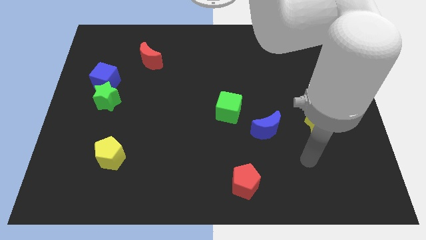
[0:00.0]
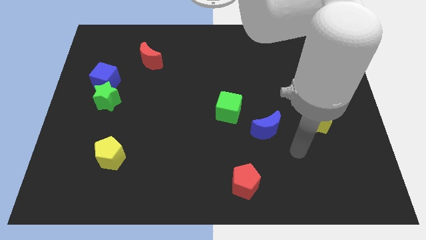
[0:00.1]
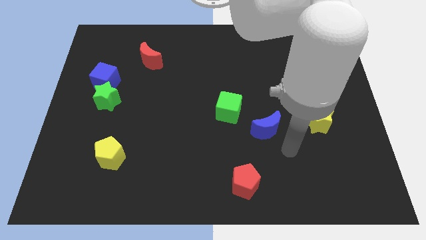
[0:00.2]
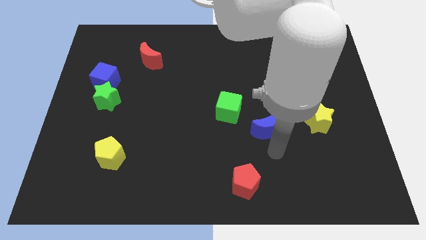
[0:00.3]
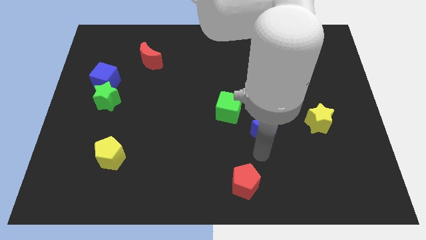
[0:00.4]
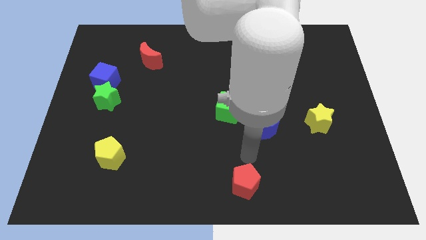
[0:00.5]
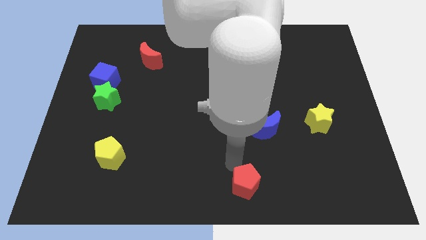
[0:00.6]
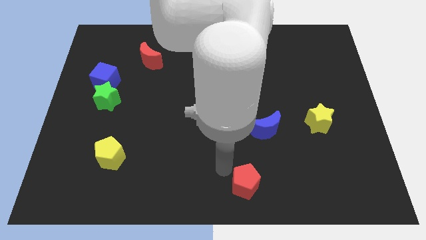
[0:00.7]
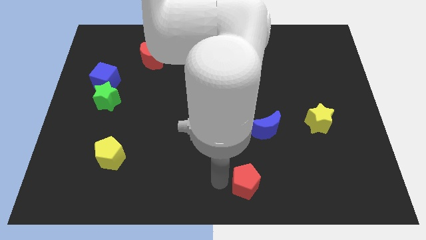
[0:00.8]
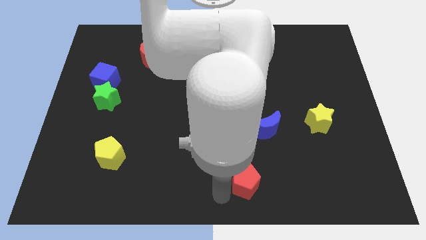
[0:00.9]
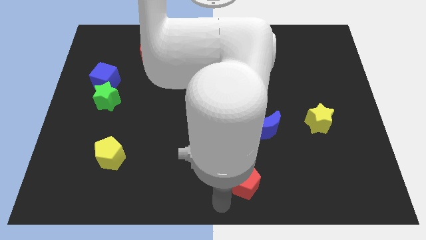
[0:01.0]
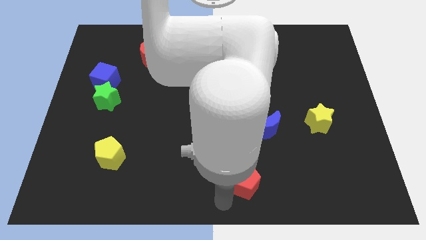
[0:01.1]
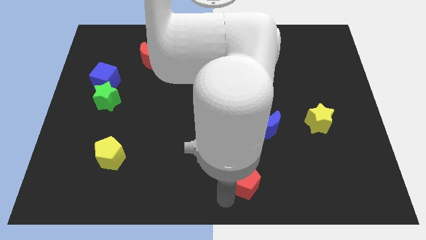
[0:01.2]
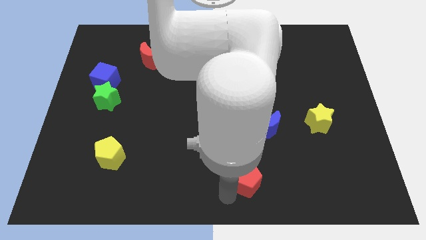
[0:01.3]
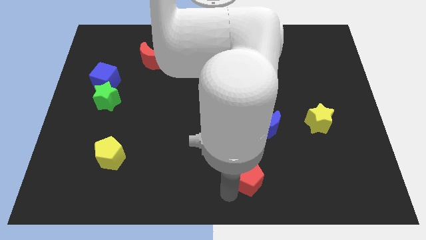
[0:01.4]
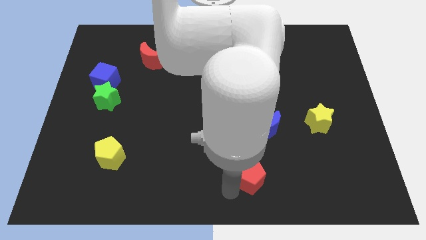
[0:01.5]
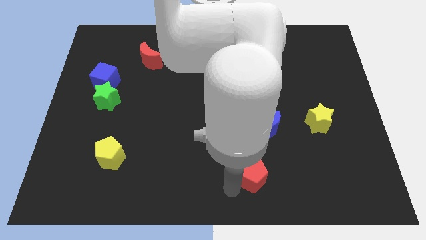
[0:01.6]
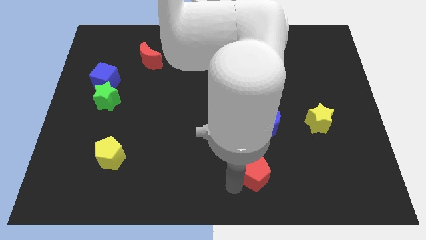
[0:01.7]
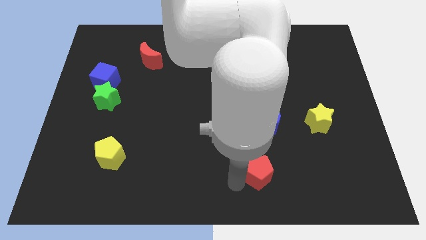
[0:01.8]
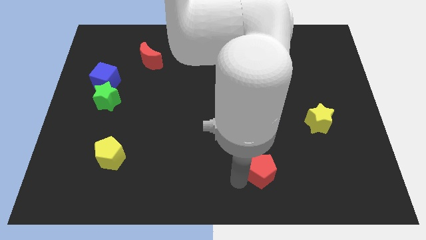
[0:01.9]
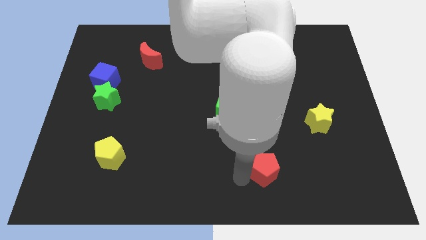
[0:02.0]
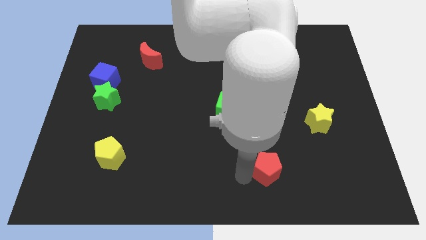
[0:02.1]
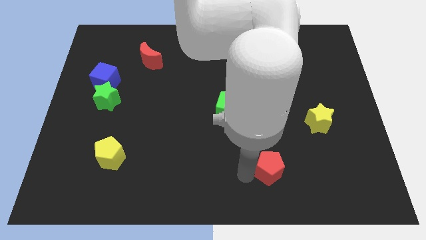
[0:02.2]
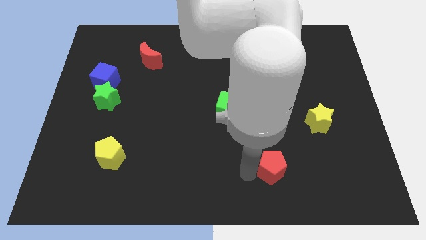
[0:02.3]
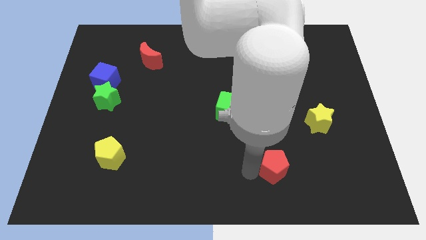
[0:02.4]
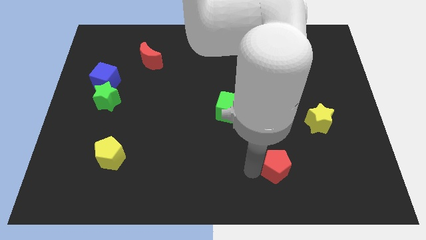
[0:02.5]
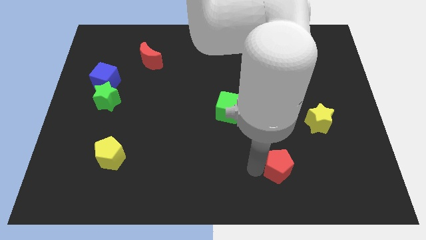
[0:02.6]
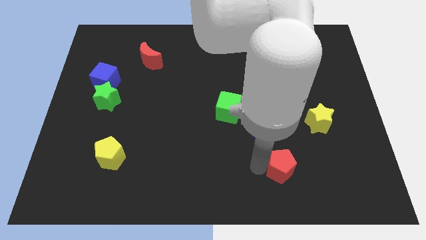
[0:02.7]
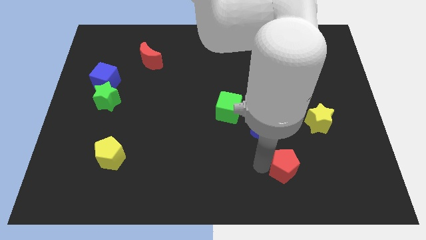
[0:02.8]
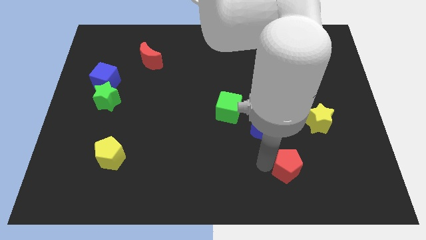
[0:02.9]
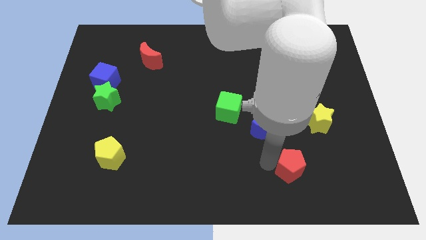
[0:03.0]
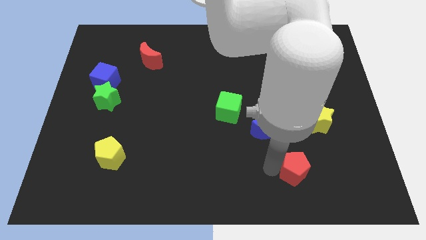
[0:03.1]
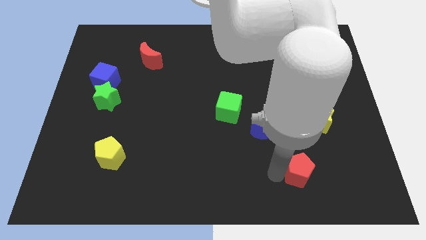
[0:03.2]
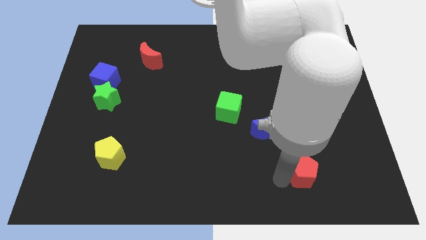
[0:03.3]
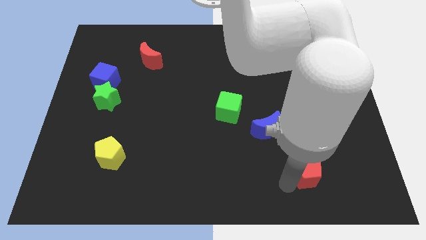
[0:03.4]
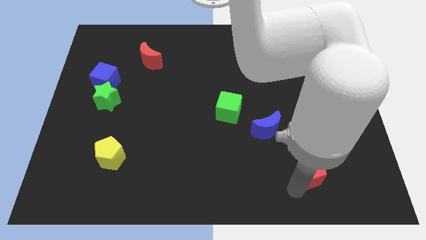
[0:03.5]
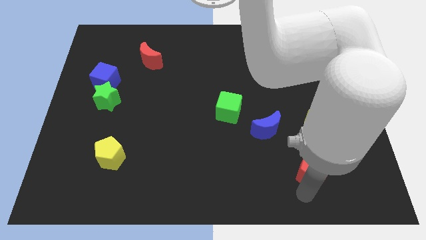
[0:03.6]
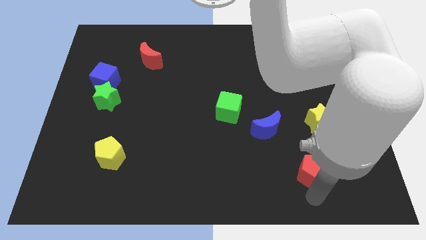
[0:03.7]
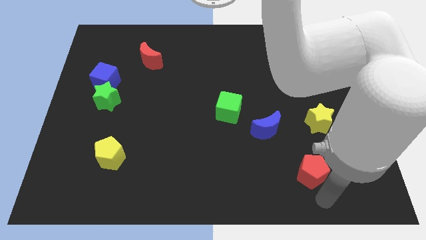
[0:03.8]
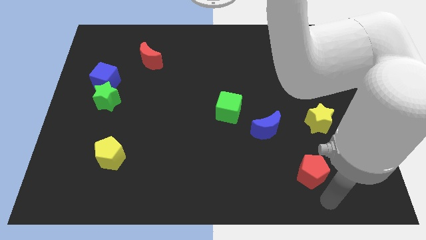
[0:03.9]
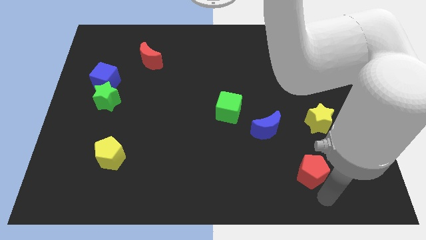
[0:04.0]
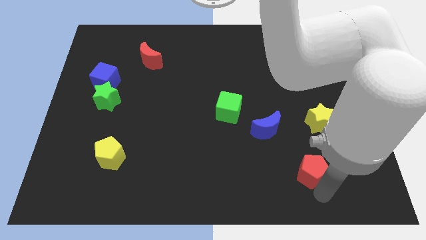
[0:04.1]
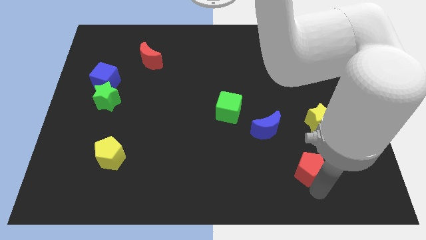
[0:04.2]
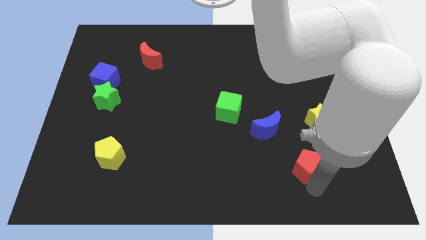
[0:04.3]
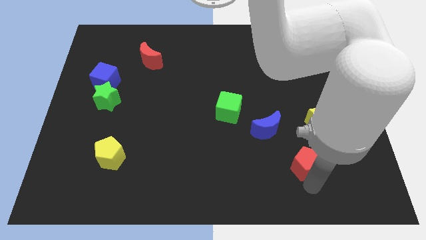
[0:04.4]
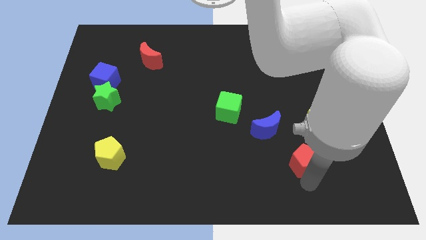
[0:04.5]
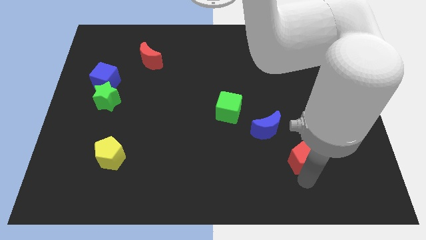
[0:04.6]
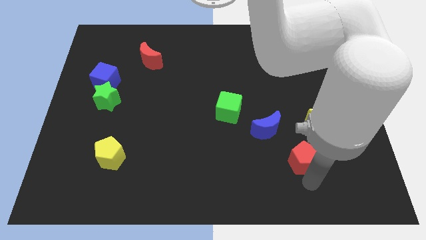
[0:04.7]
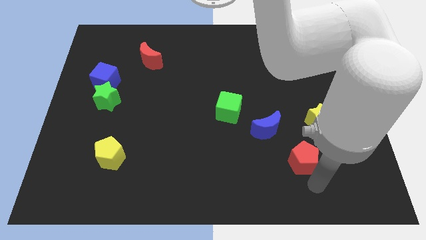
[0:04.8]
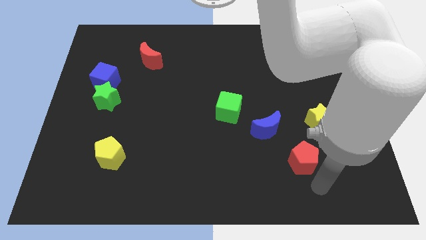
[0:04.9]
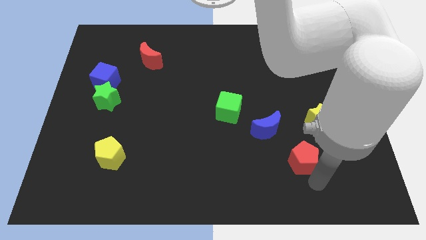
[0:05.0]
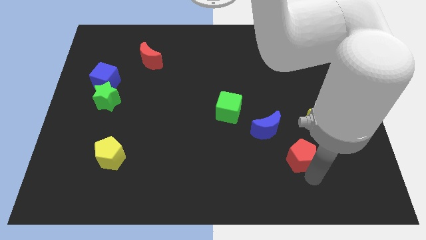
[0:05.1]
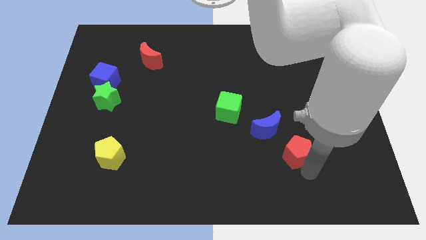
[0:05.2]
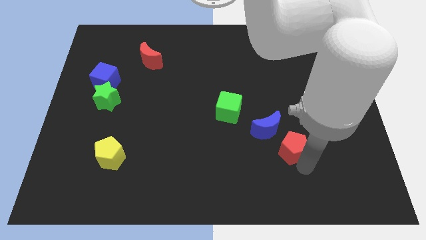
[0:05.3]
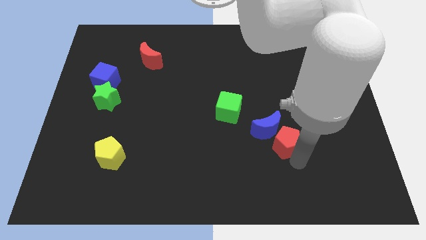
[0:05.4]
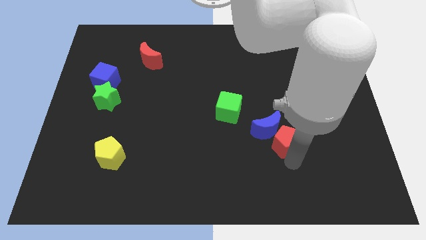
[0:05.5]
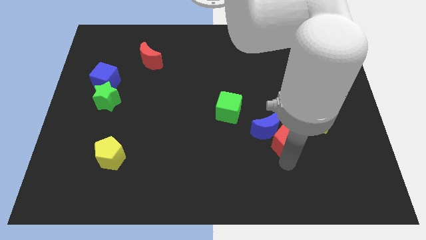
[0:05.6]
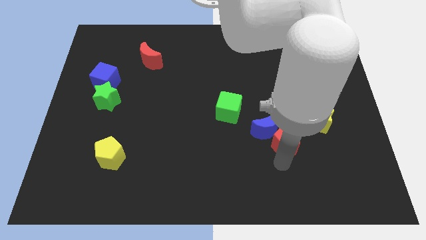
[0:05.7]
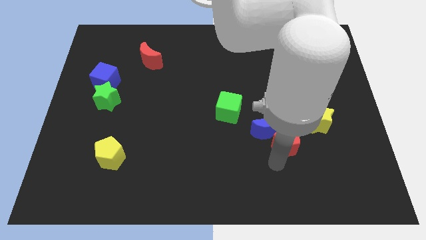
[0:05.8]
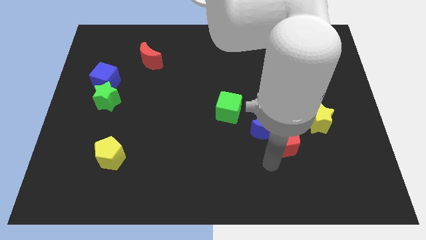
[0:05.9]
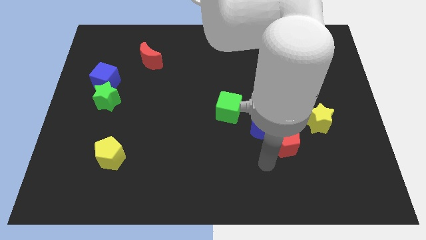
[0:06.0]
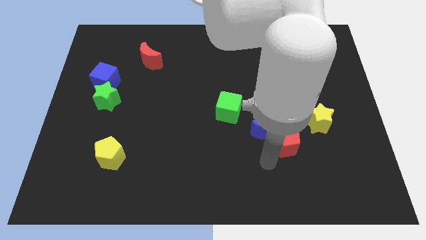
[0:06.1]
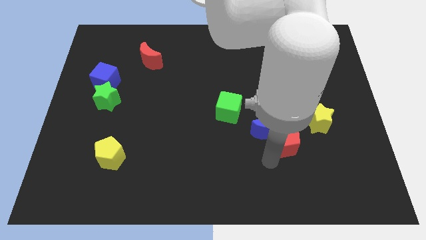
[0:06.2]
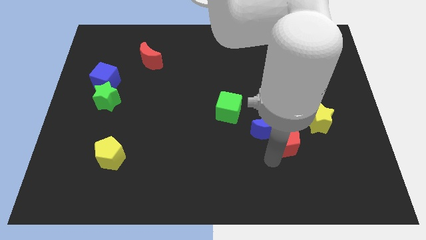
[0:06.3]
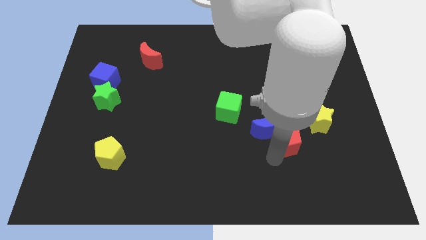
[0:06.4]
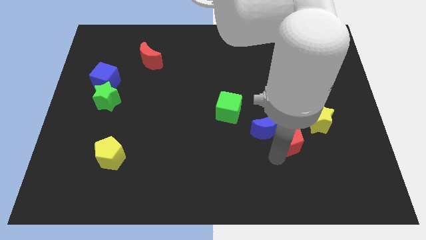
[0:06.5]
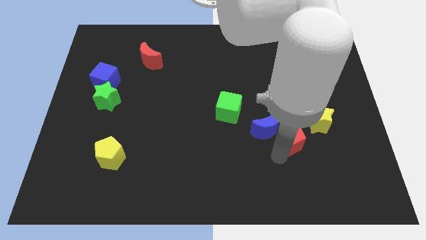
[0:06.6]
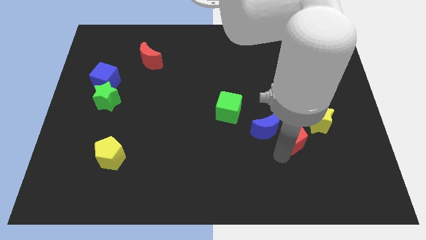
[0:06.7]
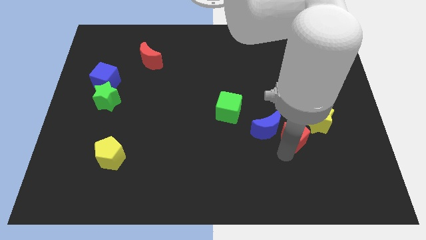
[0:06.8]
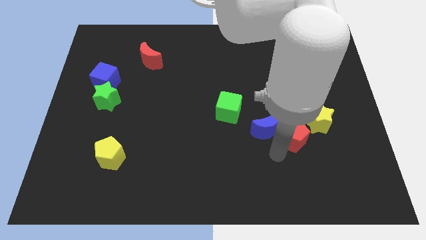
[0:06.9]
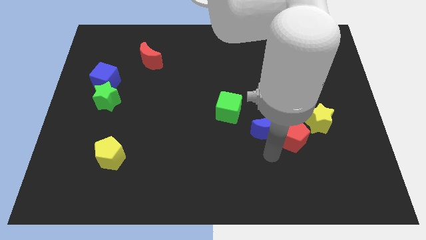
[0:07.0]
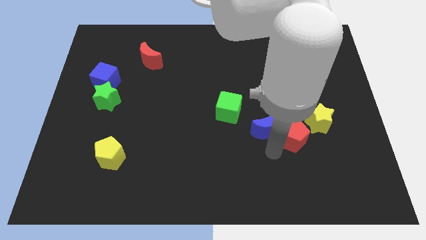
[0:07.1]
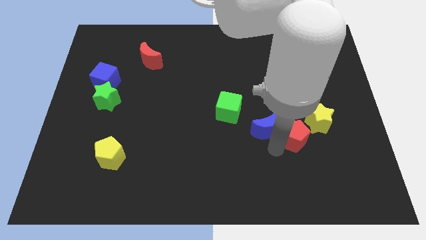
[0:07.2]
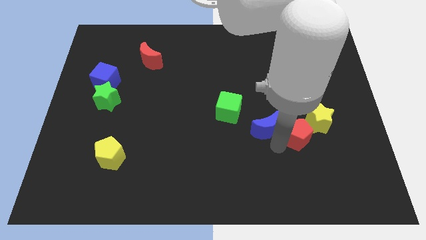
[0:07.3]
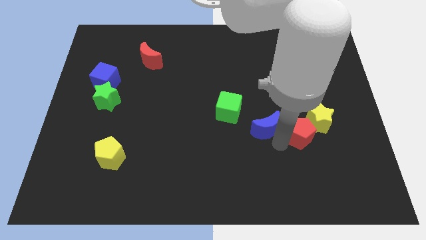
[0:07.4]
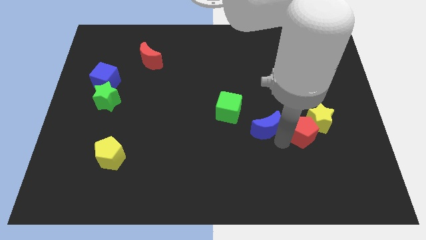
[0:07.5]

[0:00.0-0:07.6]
put the red pentagon to the yellow star
